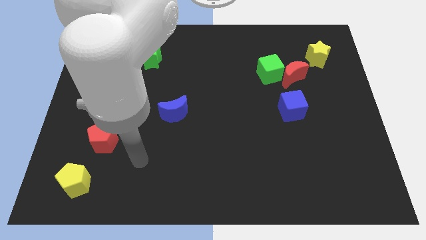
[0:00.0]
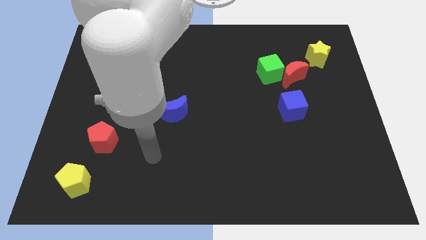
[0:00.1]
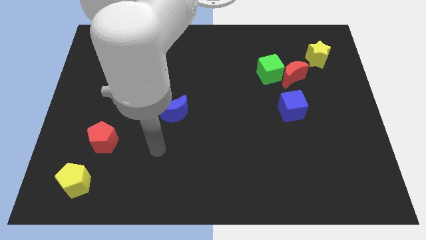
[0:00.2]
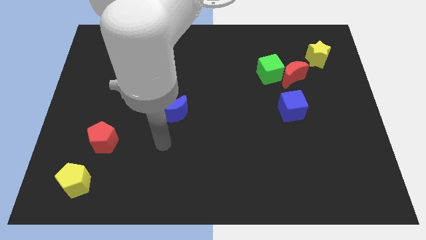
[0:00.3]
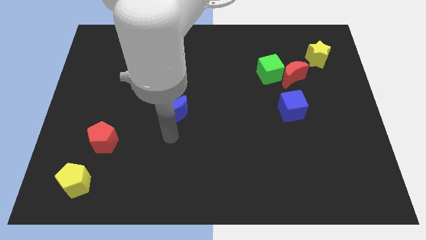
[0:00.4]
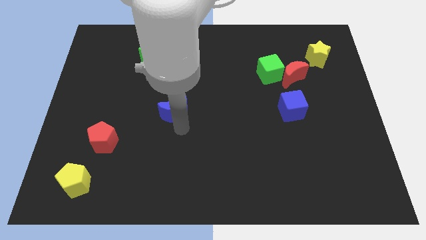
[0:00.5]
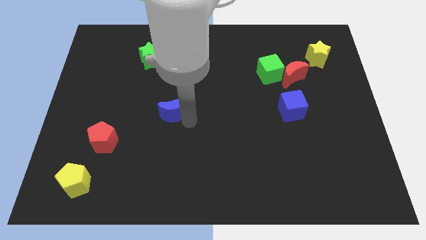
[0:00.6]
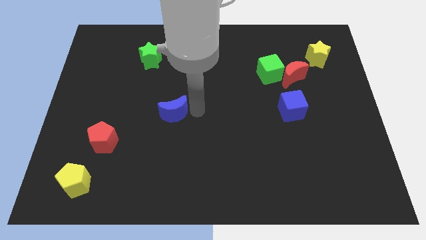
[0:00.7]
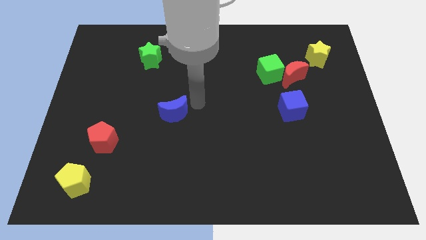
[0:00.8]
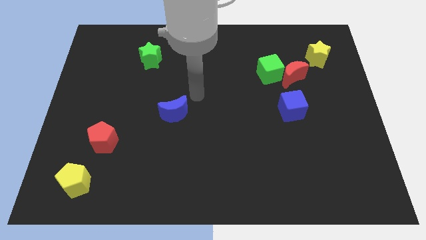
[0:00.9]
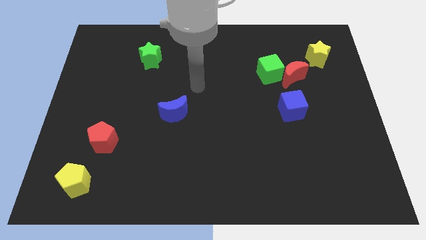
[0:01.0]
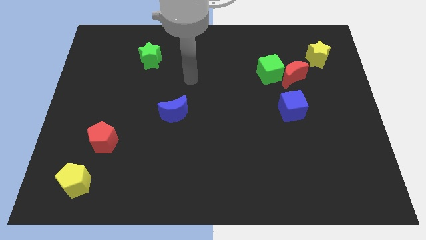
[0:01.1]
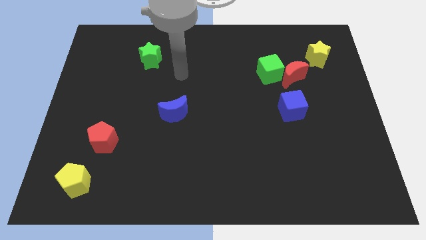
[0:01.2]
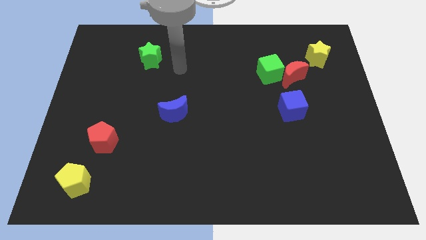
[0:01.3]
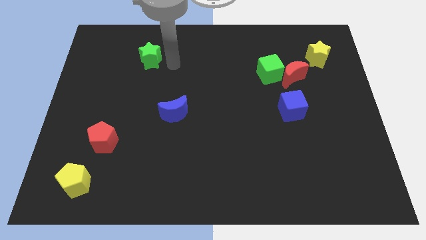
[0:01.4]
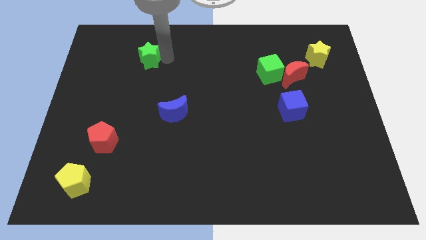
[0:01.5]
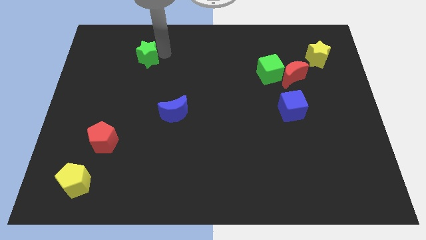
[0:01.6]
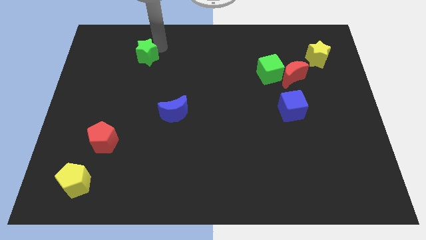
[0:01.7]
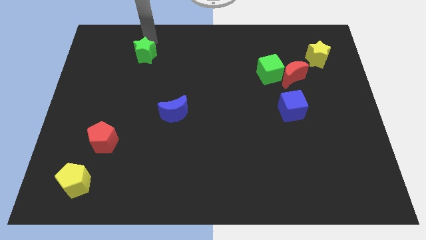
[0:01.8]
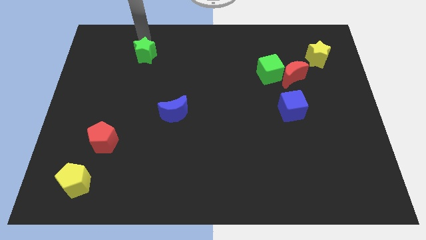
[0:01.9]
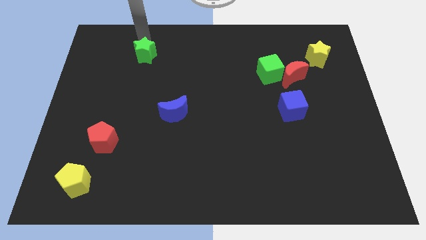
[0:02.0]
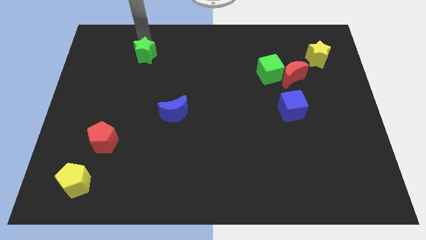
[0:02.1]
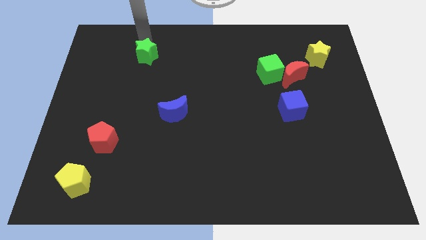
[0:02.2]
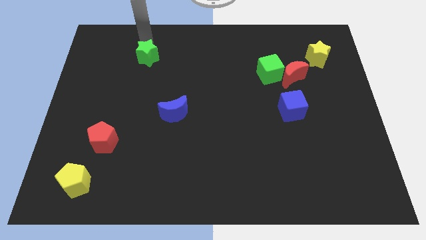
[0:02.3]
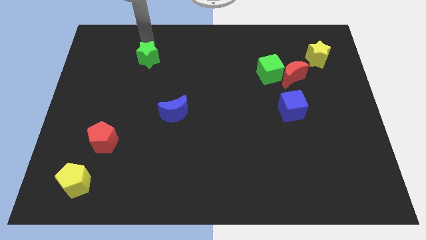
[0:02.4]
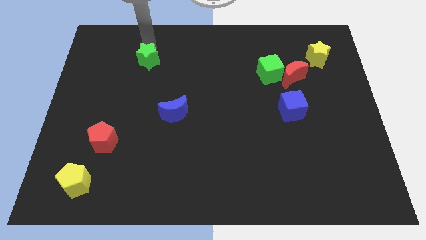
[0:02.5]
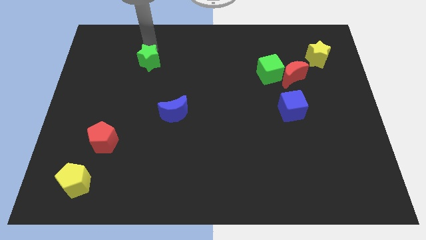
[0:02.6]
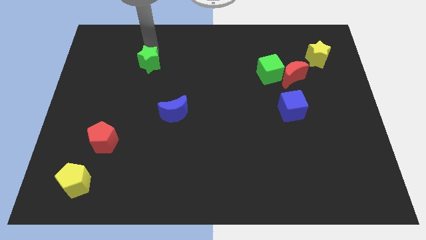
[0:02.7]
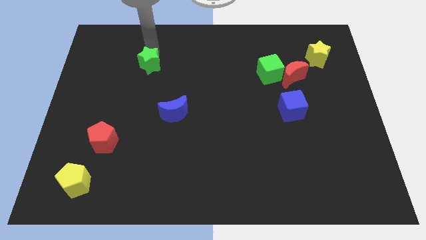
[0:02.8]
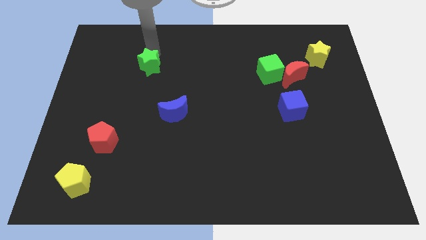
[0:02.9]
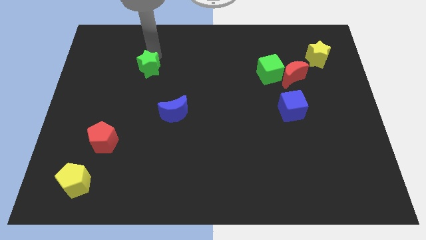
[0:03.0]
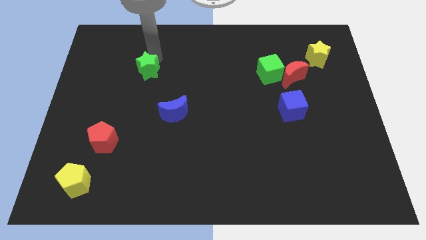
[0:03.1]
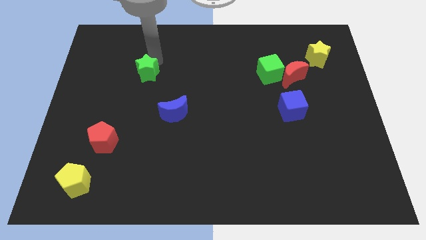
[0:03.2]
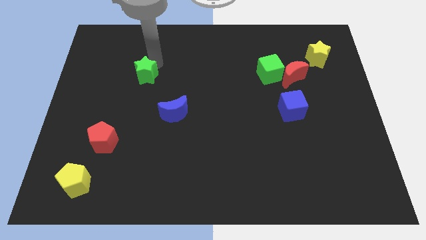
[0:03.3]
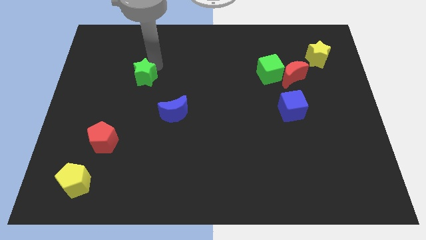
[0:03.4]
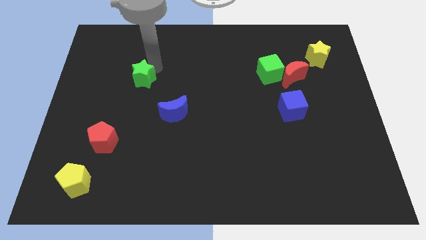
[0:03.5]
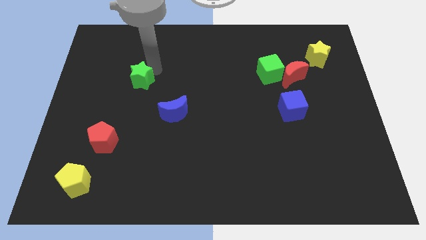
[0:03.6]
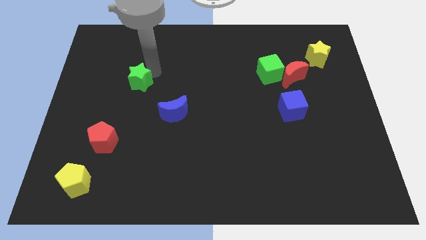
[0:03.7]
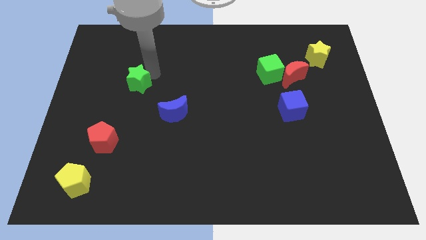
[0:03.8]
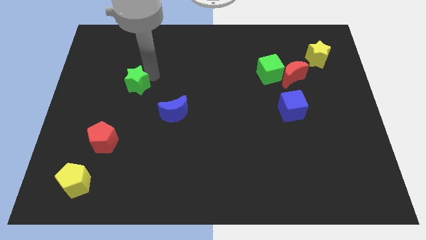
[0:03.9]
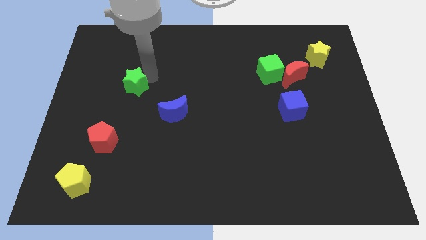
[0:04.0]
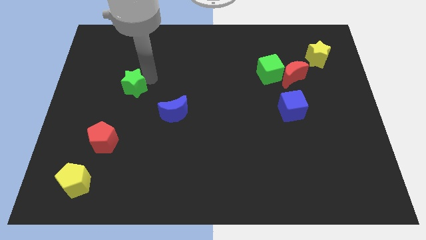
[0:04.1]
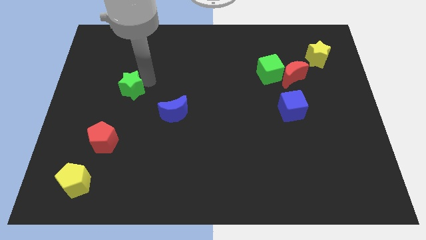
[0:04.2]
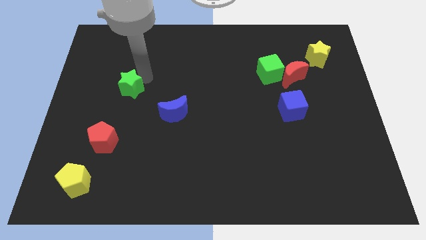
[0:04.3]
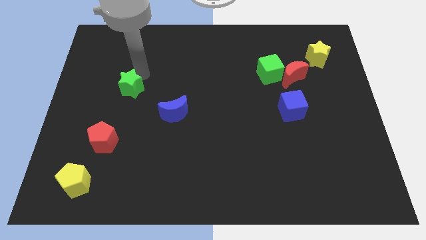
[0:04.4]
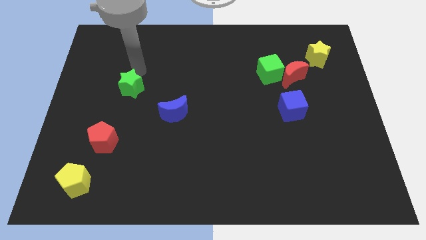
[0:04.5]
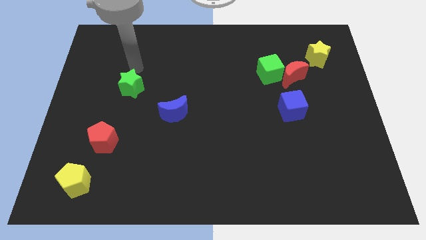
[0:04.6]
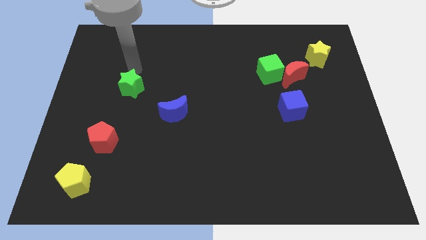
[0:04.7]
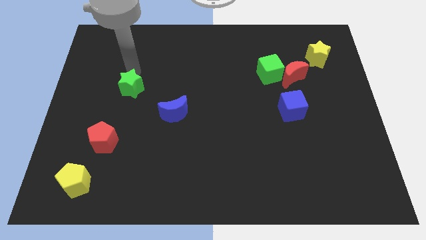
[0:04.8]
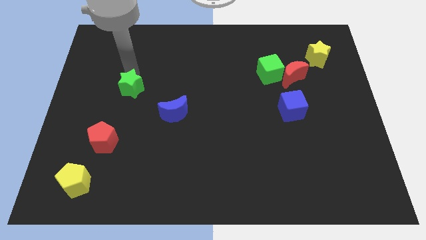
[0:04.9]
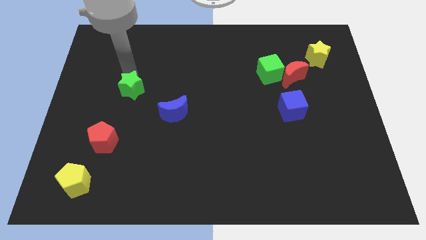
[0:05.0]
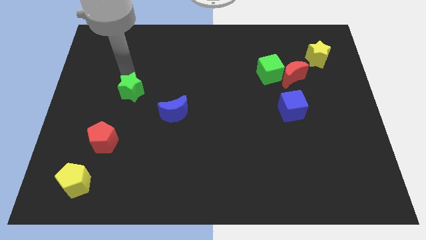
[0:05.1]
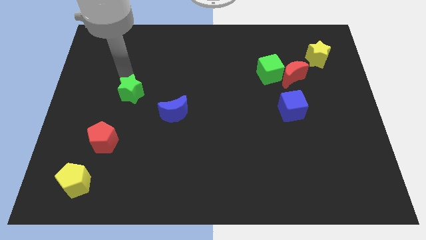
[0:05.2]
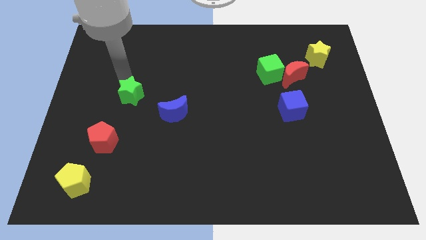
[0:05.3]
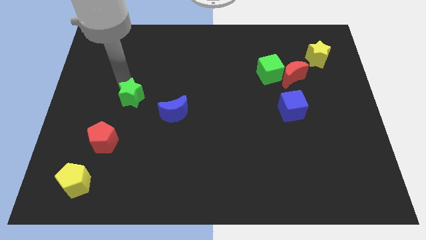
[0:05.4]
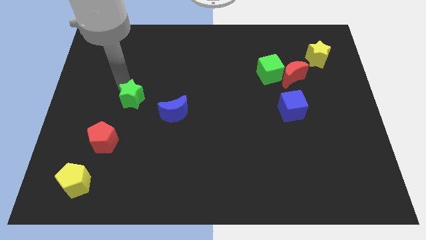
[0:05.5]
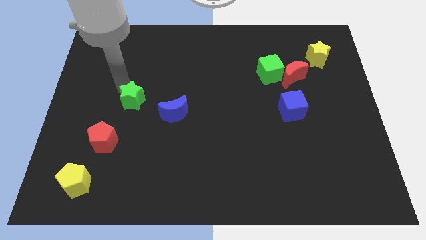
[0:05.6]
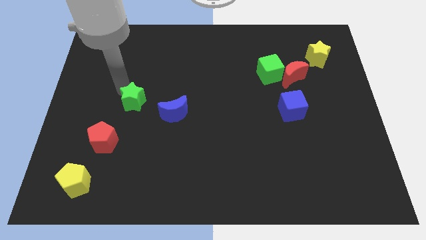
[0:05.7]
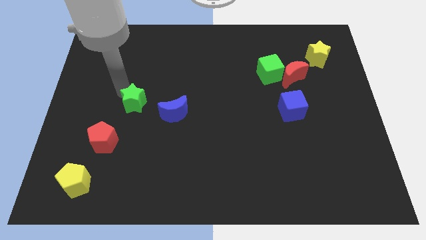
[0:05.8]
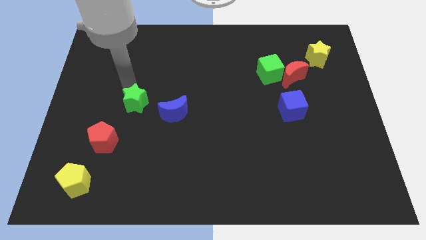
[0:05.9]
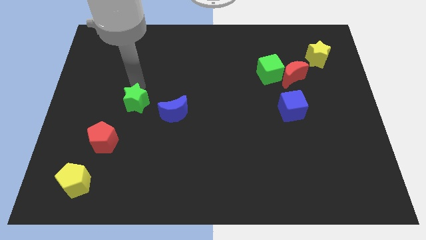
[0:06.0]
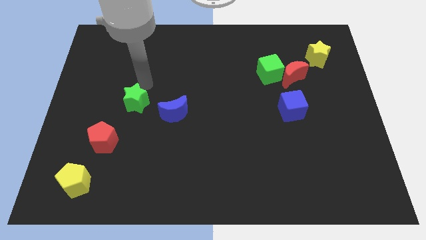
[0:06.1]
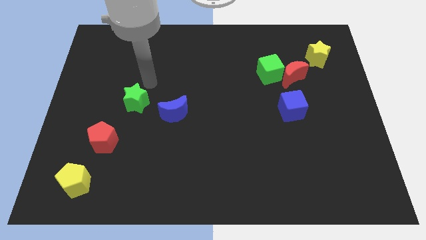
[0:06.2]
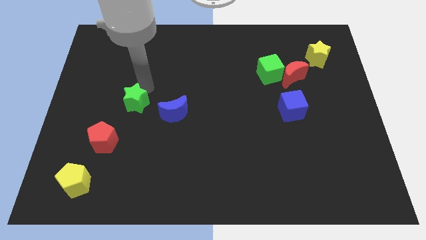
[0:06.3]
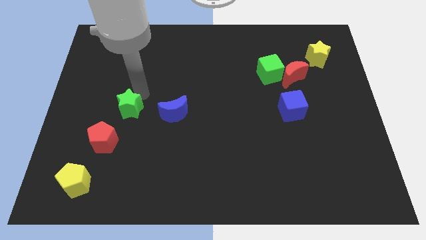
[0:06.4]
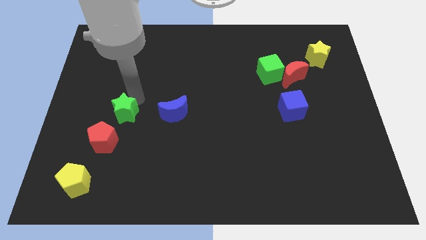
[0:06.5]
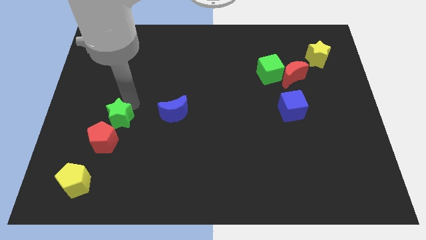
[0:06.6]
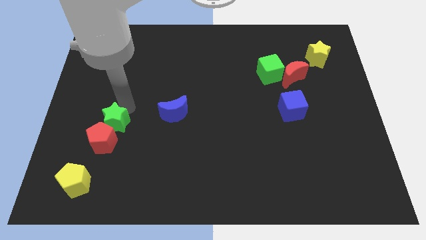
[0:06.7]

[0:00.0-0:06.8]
put the green star to the red pentagon

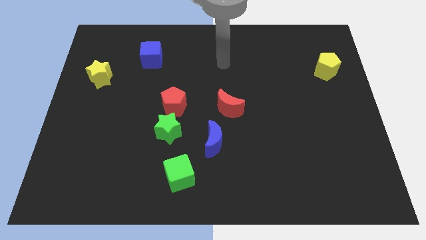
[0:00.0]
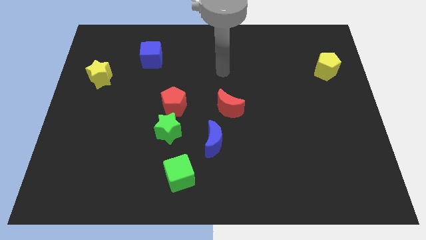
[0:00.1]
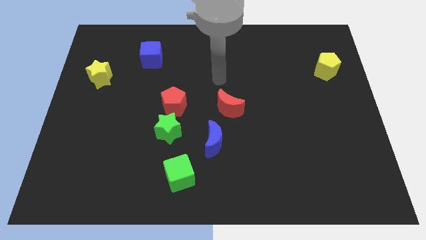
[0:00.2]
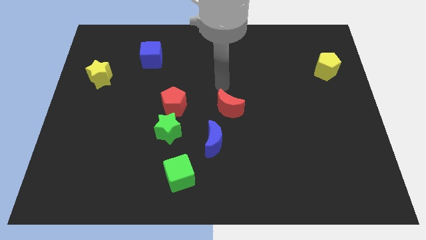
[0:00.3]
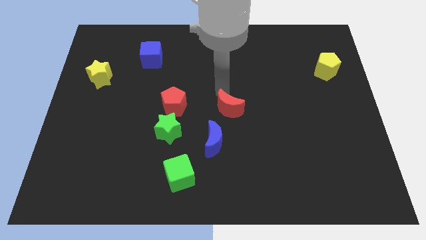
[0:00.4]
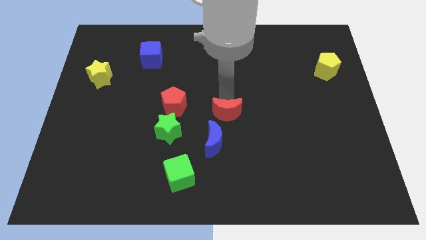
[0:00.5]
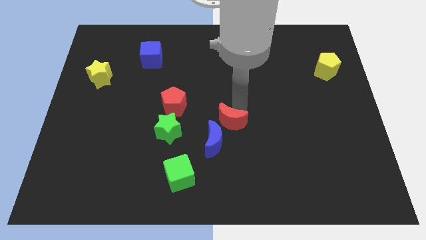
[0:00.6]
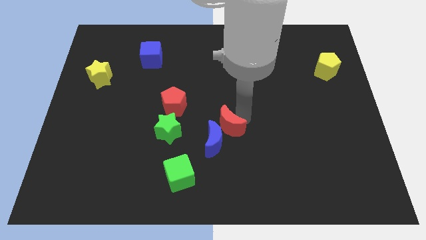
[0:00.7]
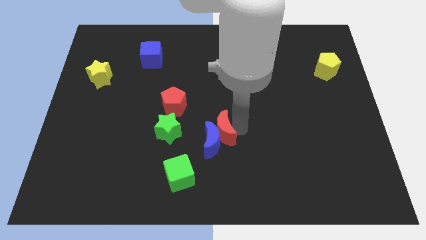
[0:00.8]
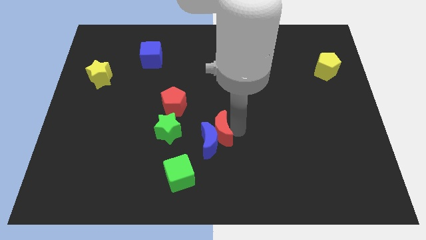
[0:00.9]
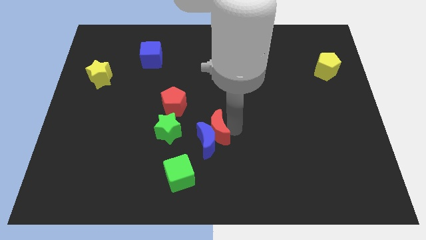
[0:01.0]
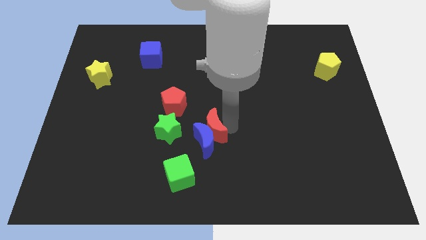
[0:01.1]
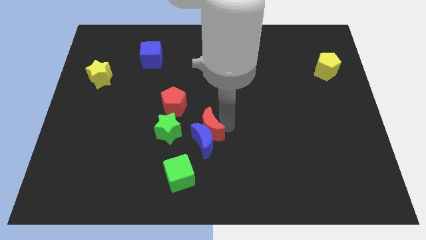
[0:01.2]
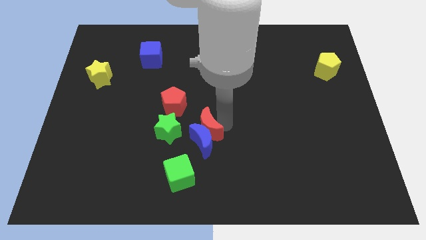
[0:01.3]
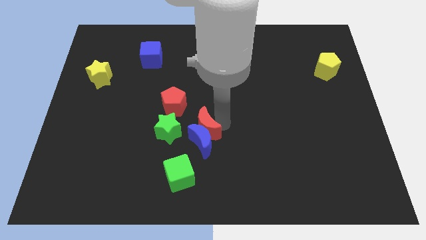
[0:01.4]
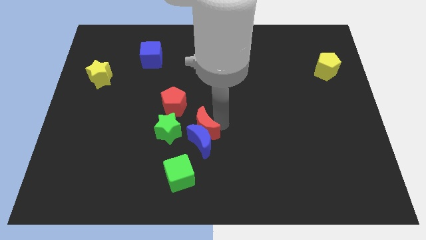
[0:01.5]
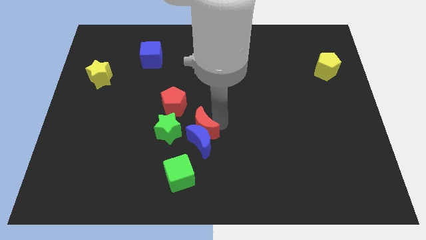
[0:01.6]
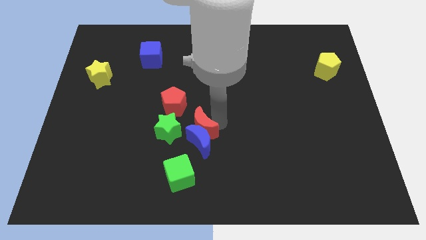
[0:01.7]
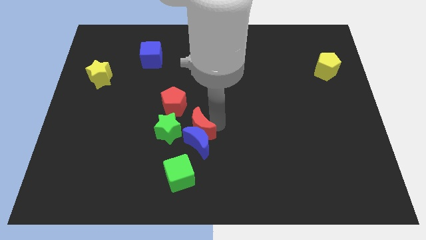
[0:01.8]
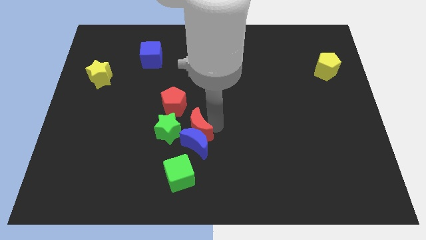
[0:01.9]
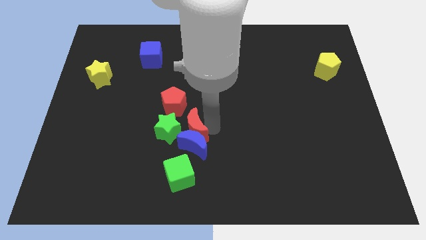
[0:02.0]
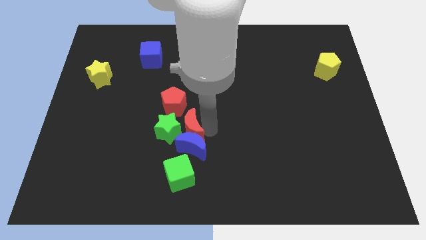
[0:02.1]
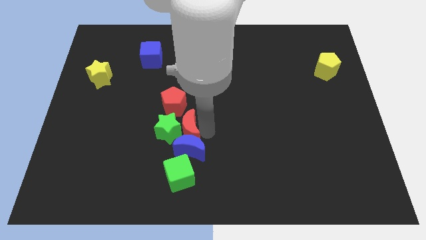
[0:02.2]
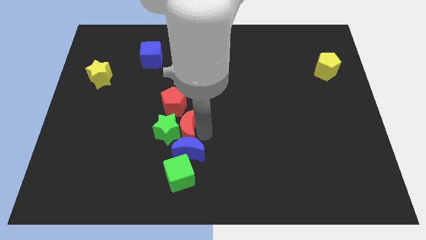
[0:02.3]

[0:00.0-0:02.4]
push the blue moon close to the green cube
